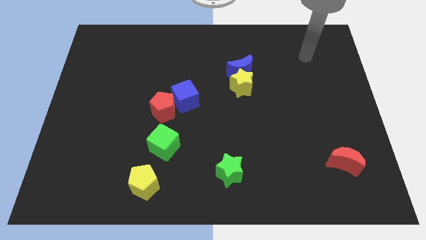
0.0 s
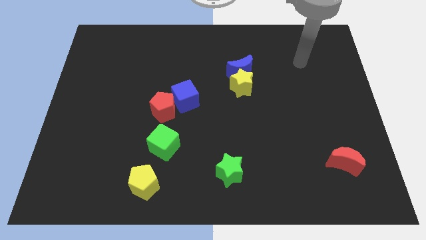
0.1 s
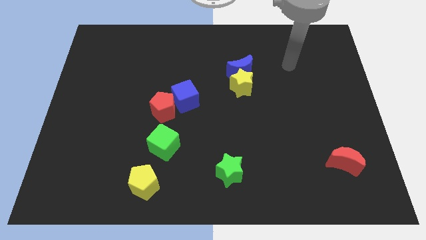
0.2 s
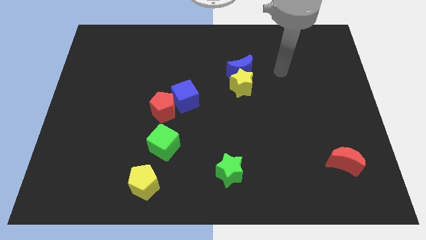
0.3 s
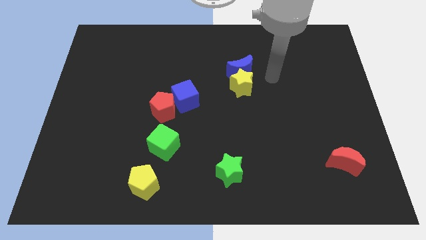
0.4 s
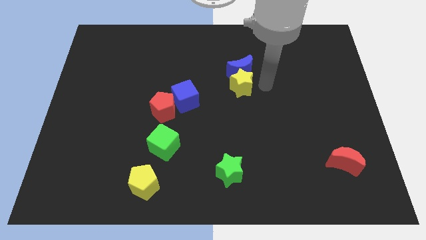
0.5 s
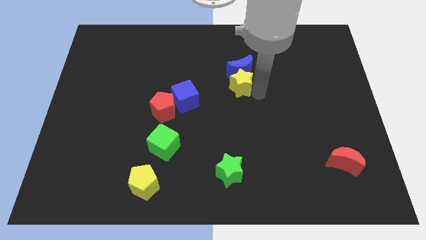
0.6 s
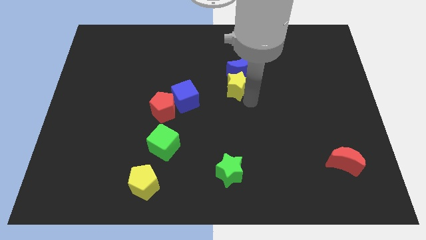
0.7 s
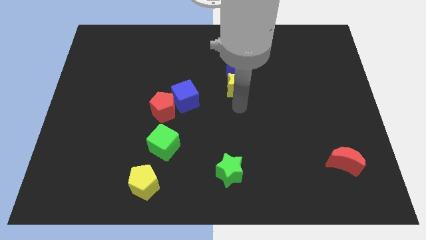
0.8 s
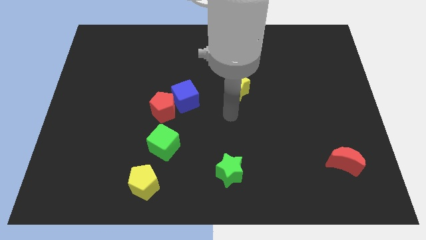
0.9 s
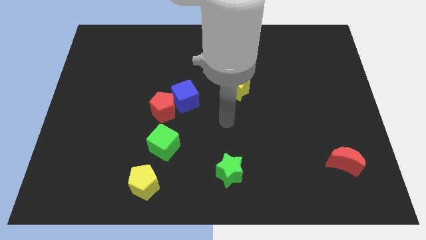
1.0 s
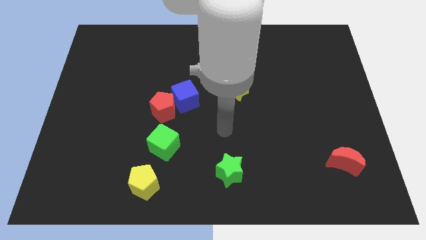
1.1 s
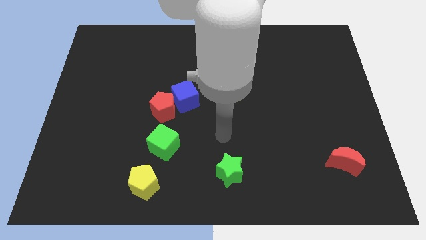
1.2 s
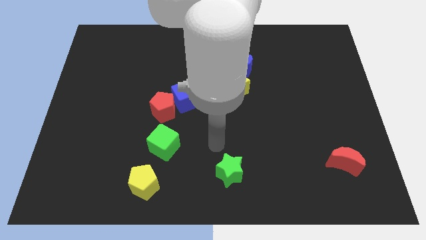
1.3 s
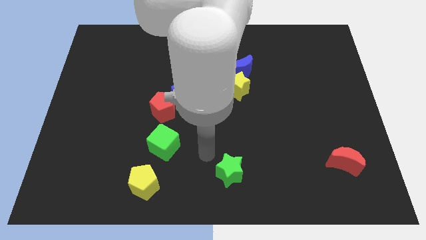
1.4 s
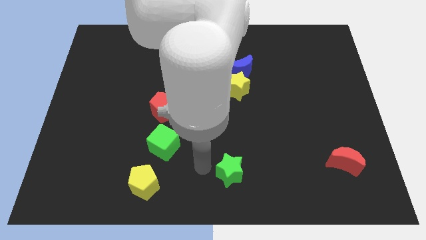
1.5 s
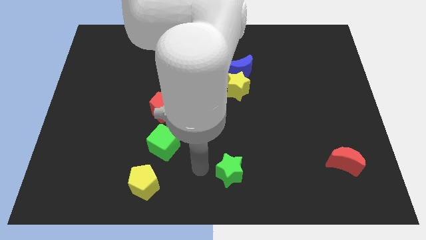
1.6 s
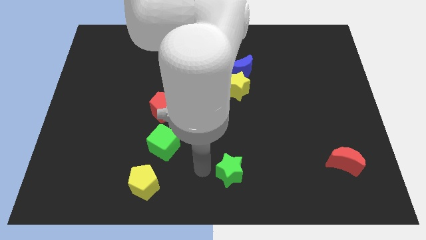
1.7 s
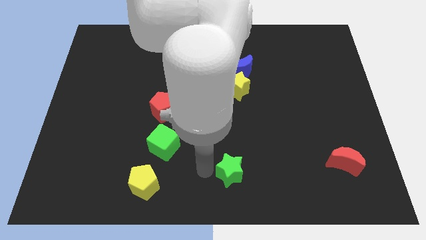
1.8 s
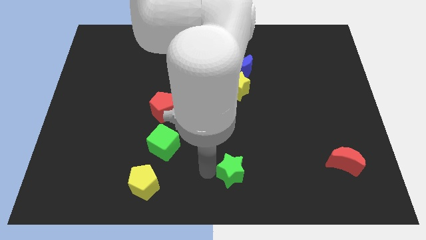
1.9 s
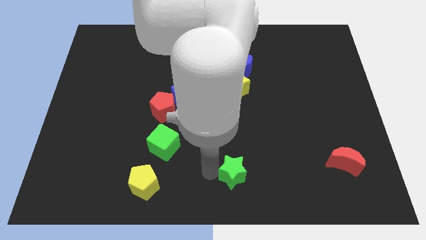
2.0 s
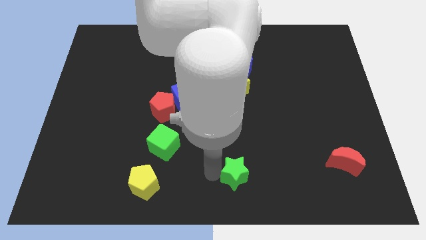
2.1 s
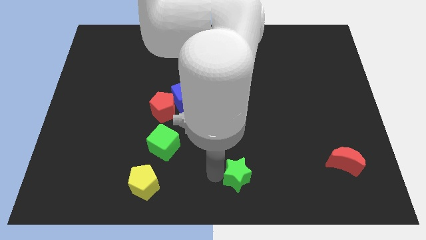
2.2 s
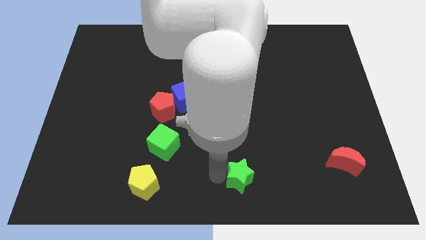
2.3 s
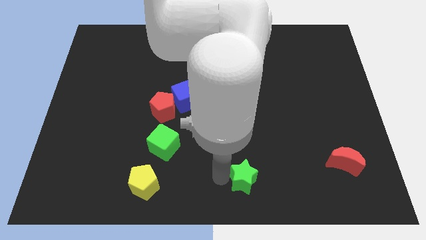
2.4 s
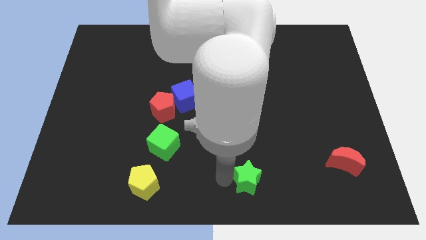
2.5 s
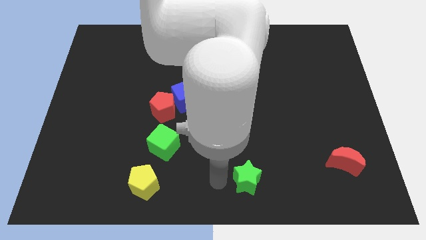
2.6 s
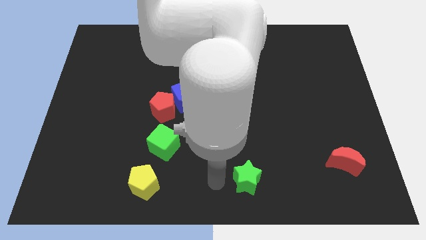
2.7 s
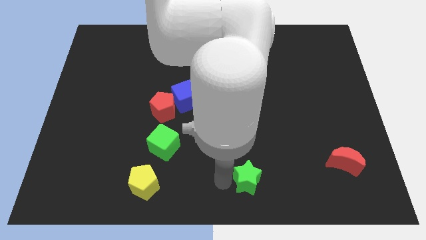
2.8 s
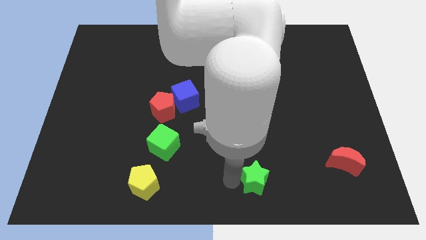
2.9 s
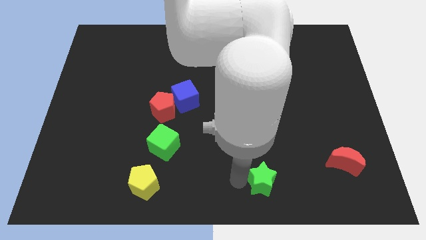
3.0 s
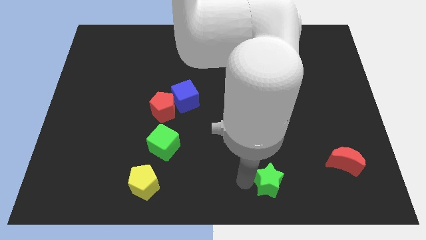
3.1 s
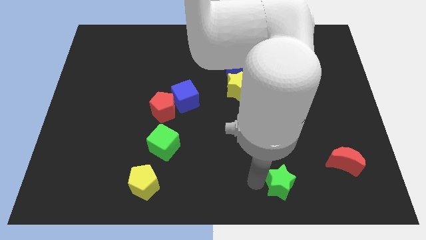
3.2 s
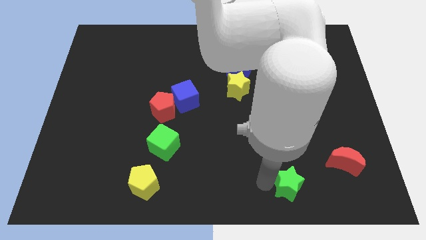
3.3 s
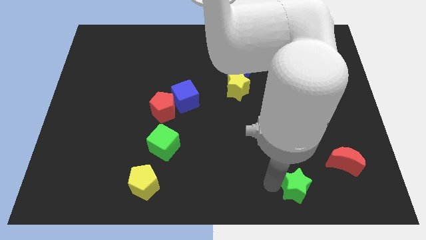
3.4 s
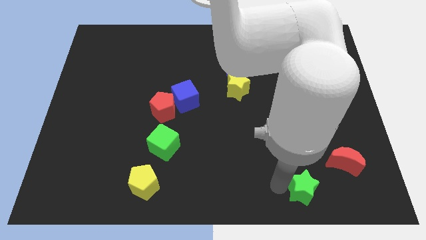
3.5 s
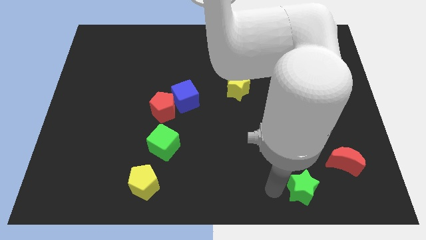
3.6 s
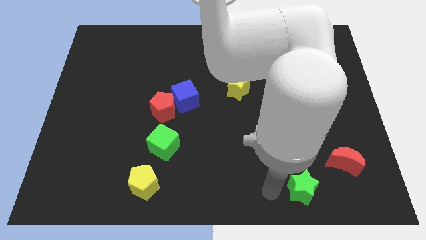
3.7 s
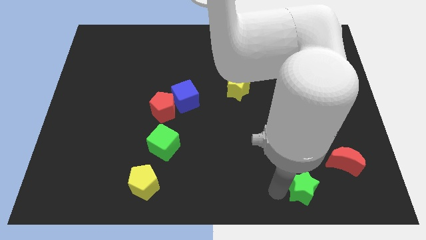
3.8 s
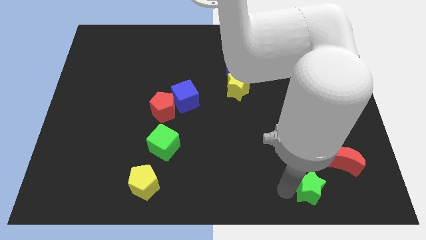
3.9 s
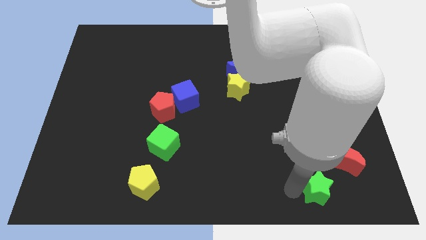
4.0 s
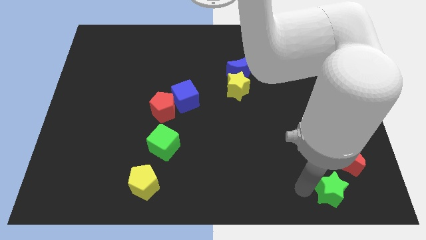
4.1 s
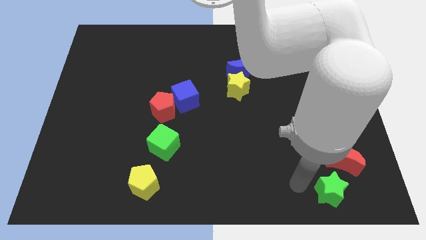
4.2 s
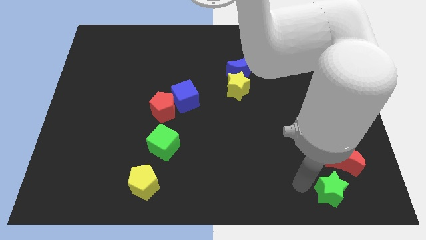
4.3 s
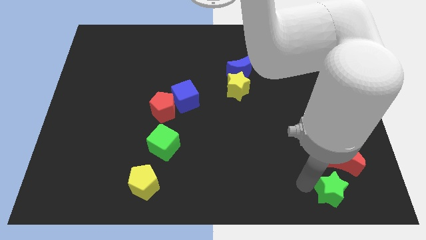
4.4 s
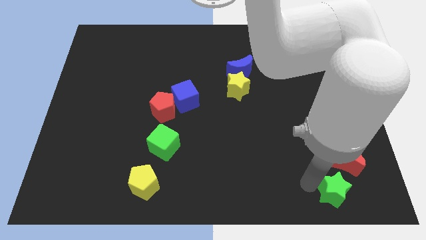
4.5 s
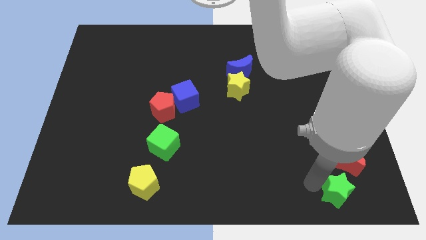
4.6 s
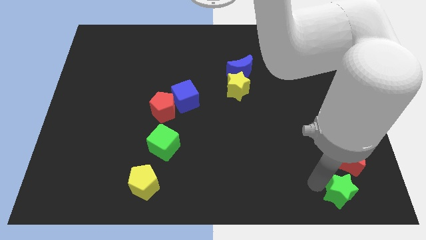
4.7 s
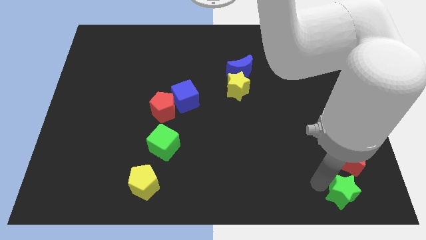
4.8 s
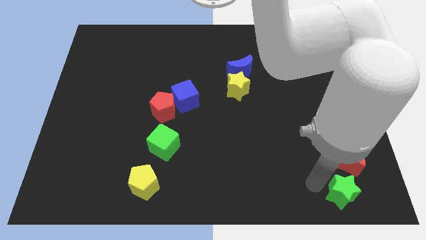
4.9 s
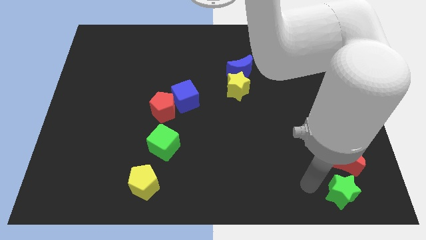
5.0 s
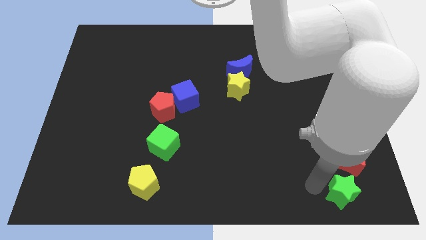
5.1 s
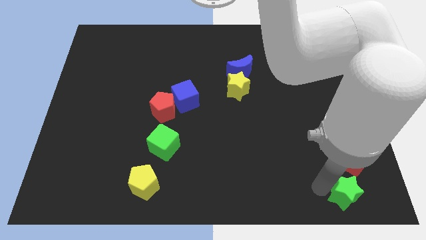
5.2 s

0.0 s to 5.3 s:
push the green star to the bottom right of the board

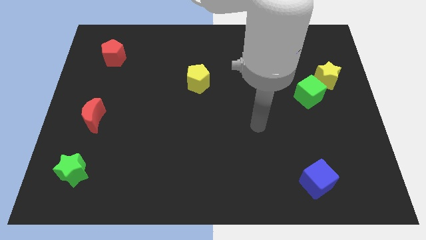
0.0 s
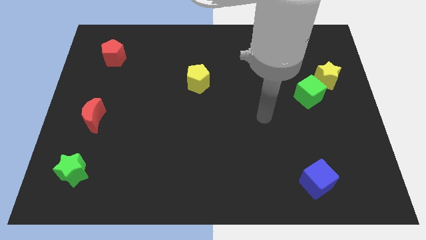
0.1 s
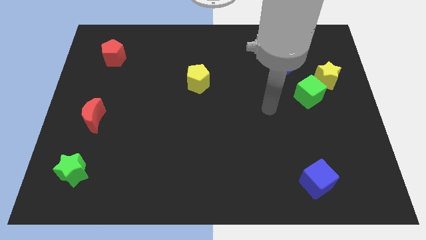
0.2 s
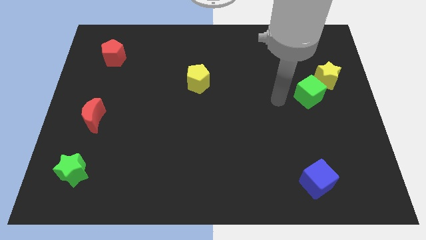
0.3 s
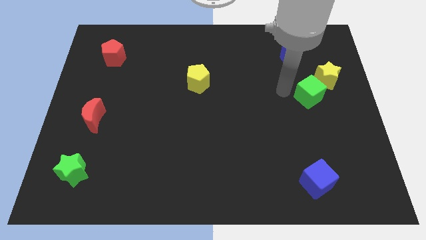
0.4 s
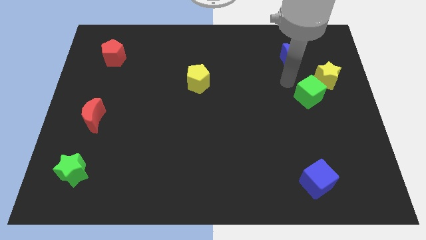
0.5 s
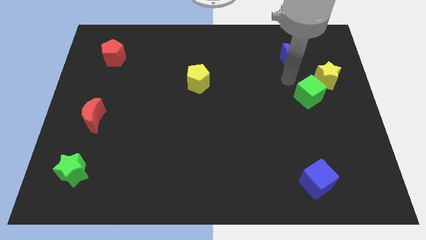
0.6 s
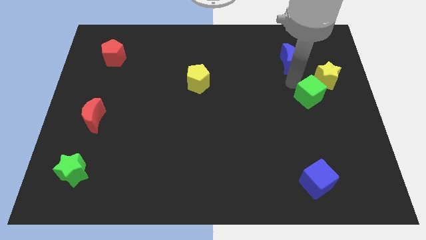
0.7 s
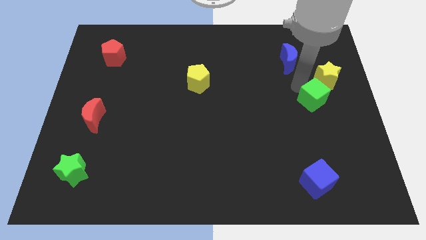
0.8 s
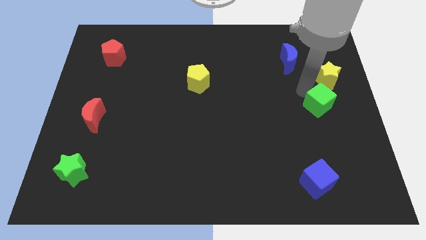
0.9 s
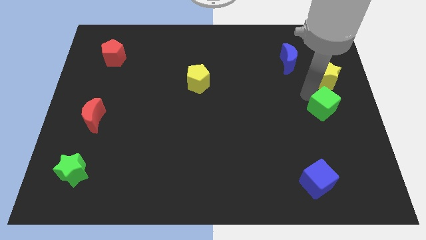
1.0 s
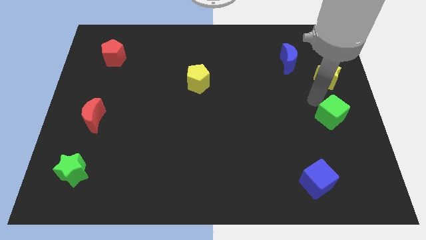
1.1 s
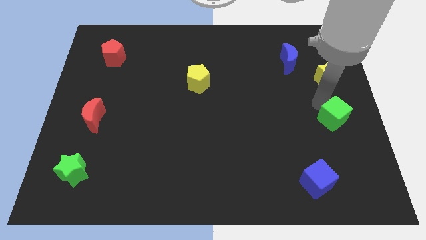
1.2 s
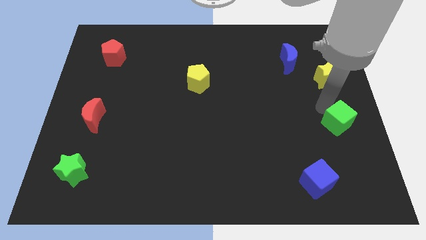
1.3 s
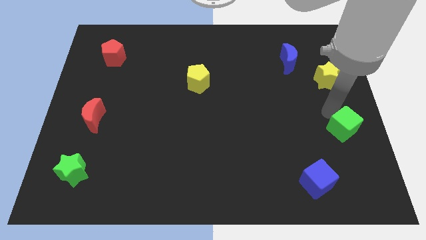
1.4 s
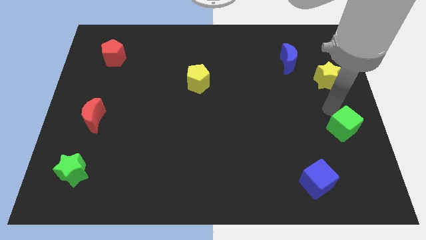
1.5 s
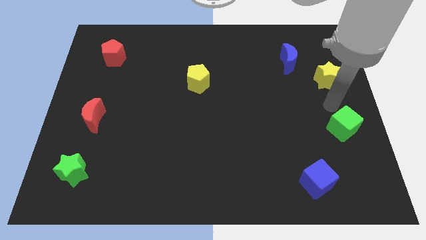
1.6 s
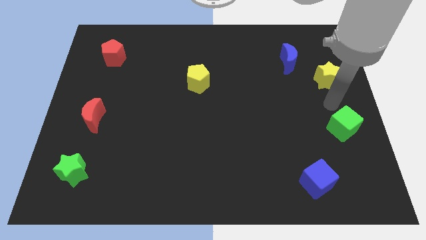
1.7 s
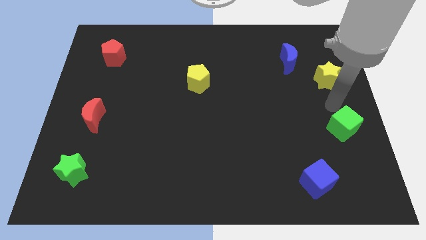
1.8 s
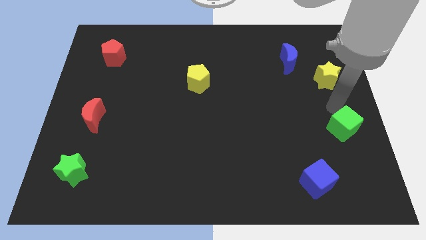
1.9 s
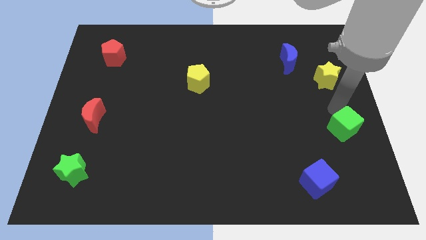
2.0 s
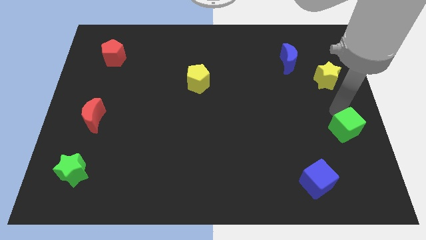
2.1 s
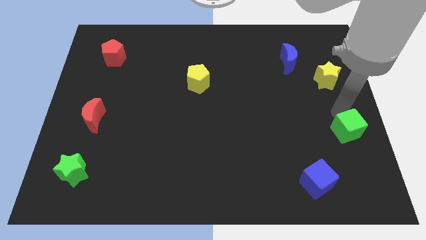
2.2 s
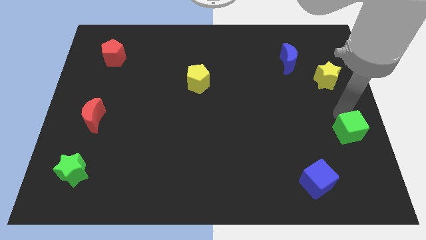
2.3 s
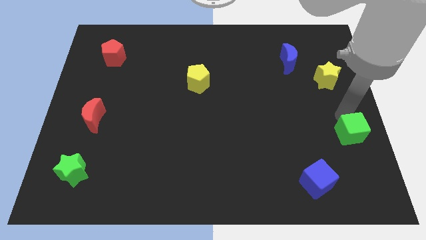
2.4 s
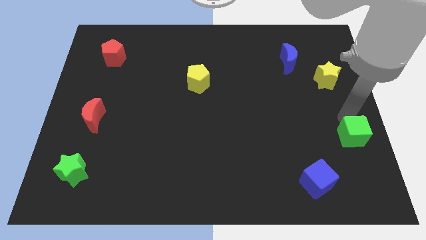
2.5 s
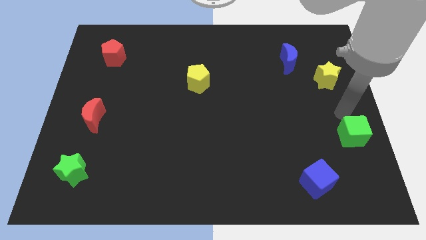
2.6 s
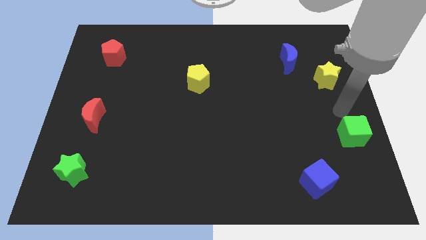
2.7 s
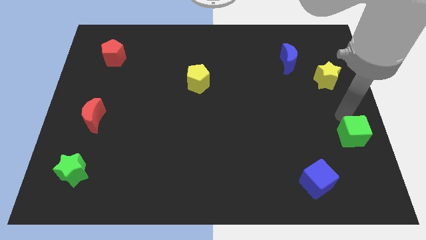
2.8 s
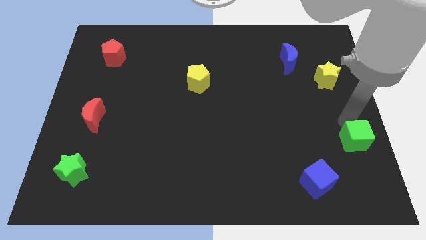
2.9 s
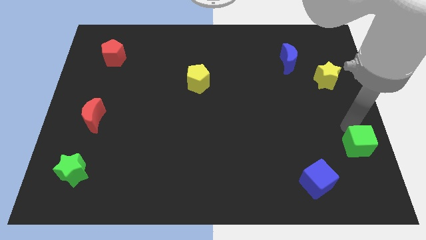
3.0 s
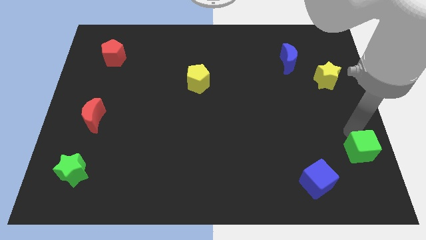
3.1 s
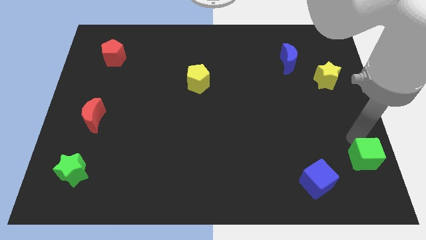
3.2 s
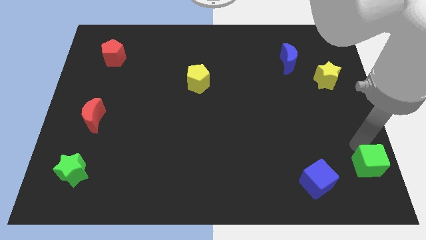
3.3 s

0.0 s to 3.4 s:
slide the green cube to the lower right corner
